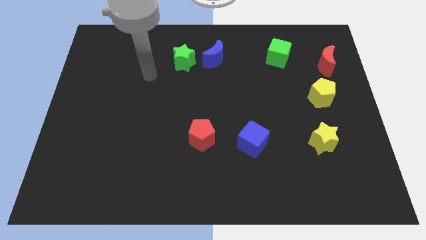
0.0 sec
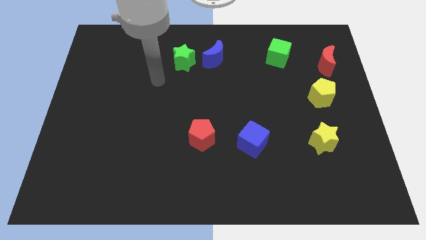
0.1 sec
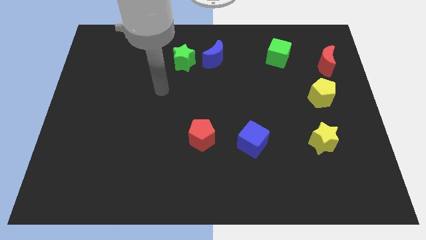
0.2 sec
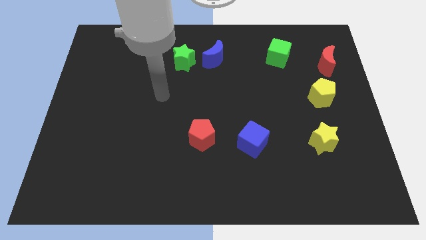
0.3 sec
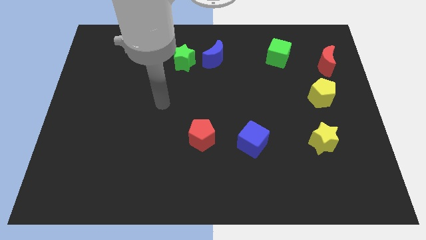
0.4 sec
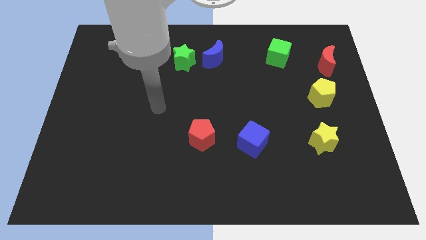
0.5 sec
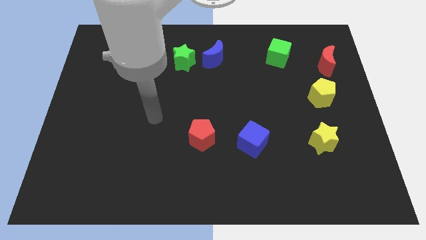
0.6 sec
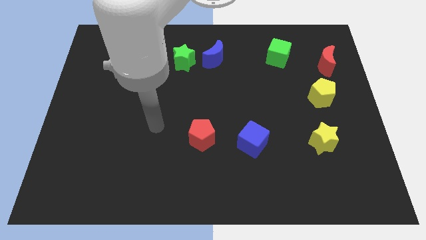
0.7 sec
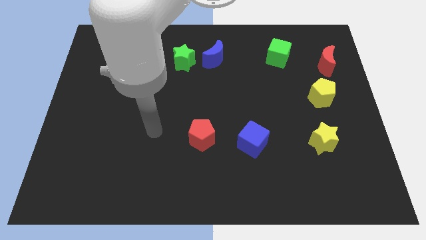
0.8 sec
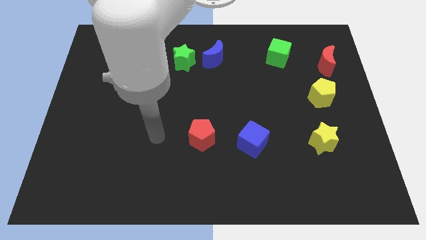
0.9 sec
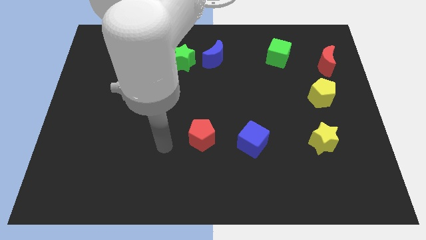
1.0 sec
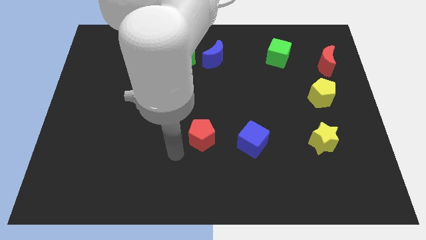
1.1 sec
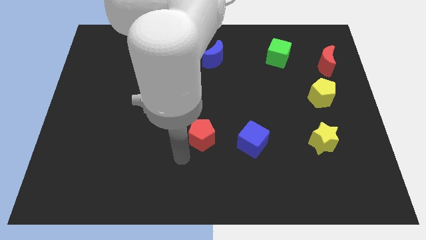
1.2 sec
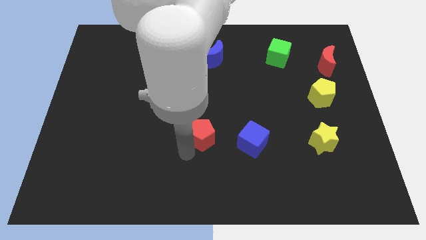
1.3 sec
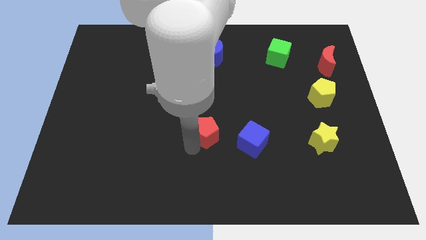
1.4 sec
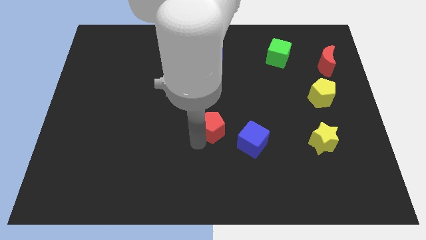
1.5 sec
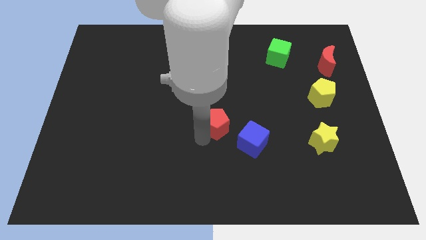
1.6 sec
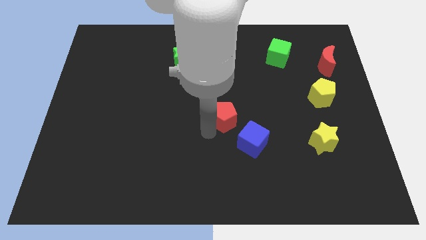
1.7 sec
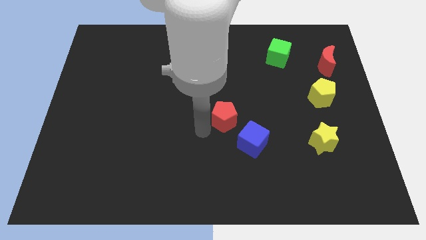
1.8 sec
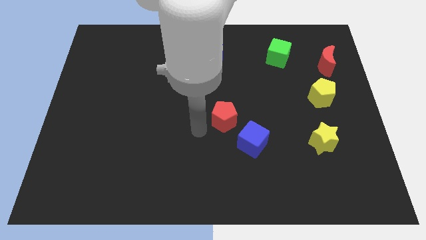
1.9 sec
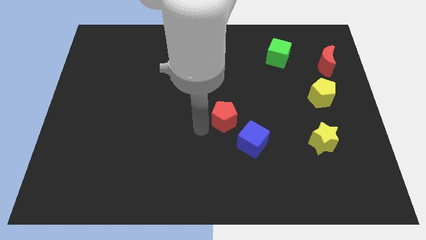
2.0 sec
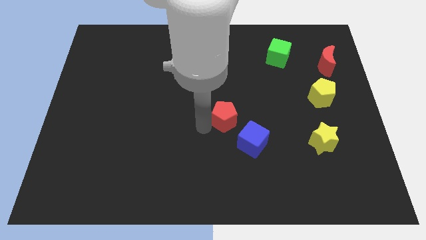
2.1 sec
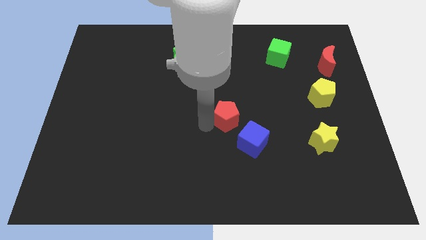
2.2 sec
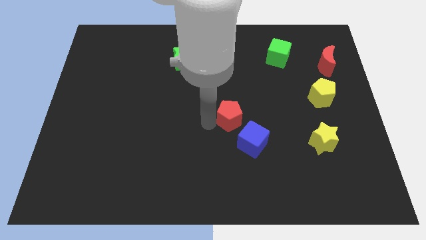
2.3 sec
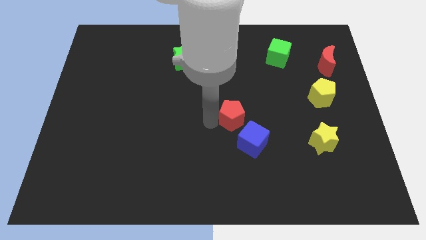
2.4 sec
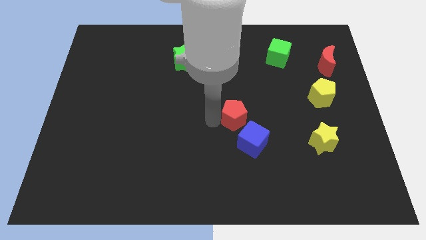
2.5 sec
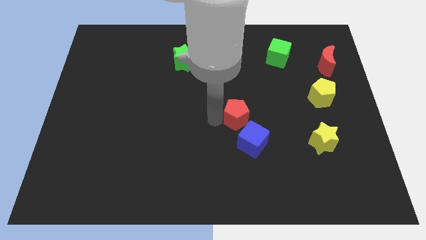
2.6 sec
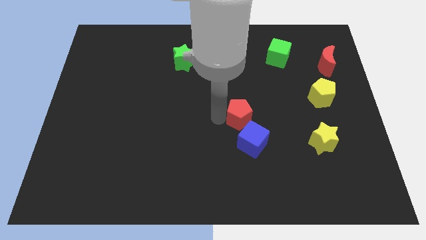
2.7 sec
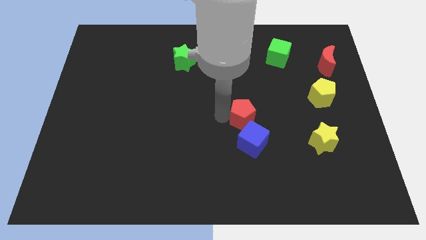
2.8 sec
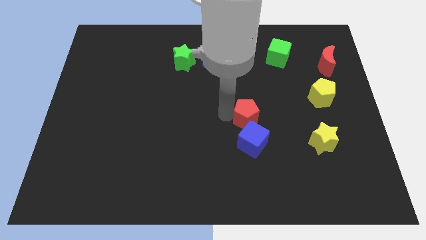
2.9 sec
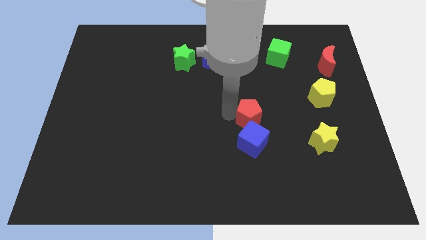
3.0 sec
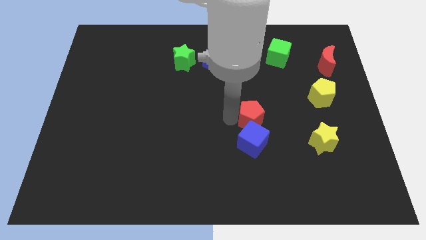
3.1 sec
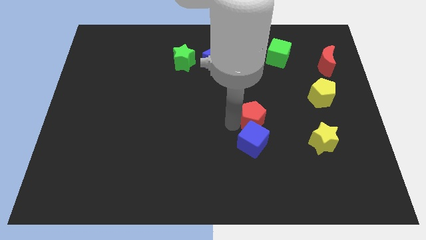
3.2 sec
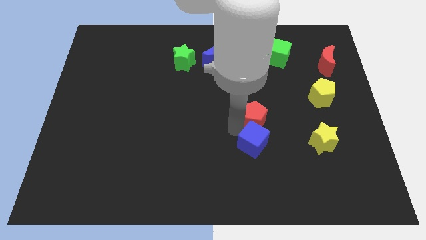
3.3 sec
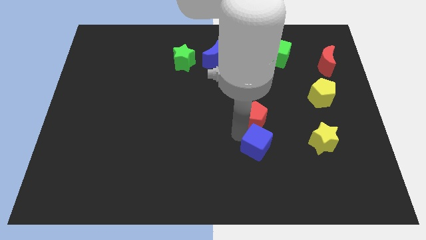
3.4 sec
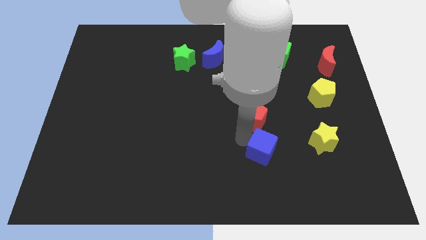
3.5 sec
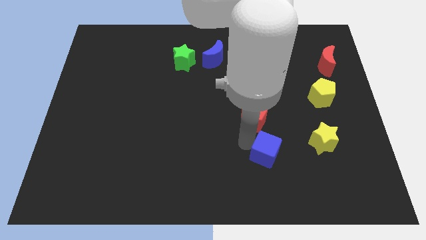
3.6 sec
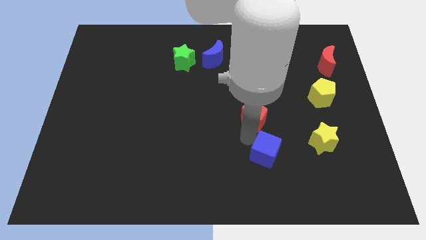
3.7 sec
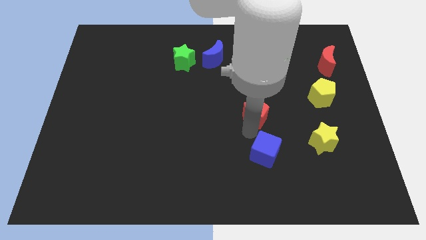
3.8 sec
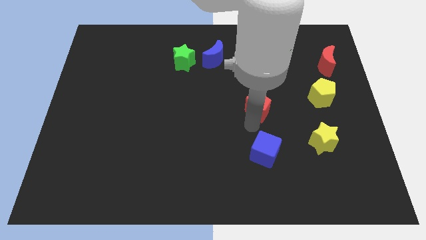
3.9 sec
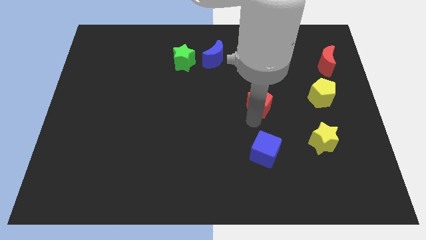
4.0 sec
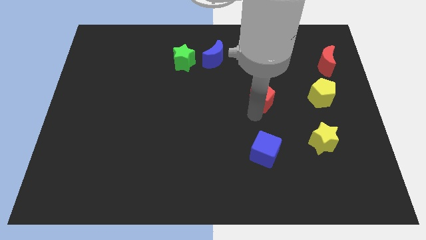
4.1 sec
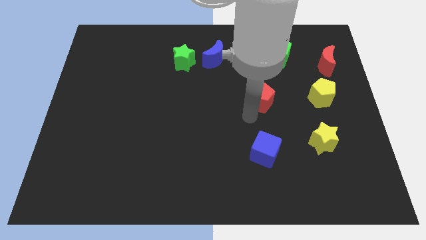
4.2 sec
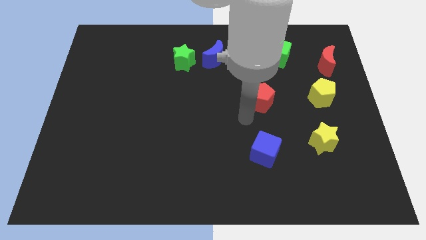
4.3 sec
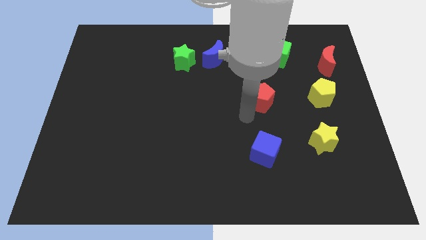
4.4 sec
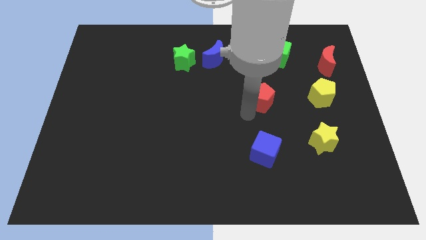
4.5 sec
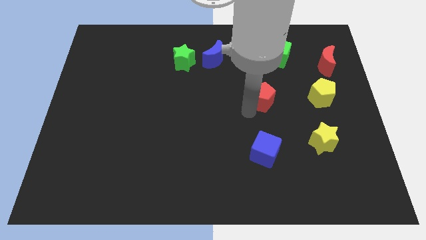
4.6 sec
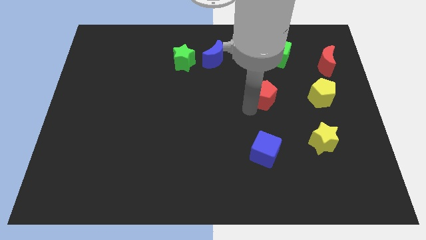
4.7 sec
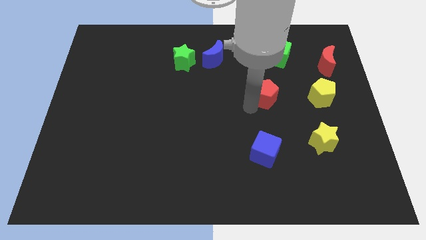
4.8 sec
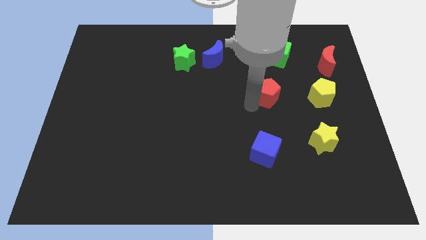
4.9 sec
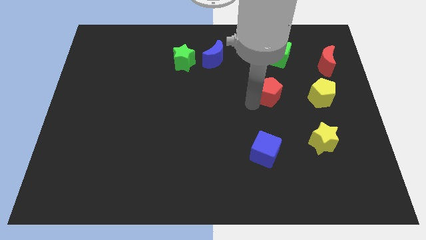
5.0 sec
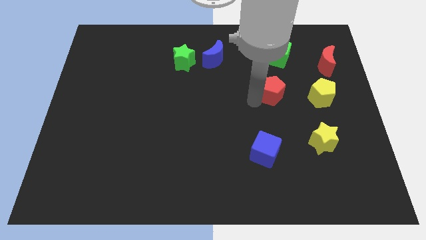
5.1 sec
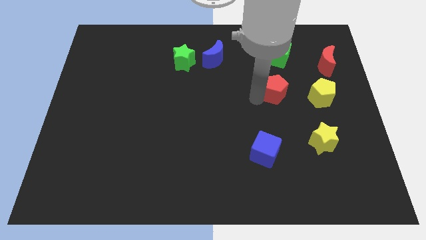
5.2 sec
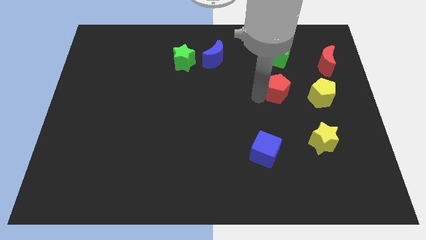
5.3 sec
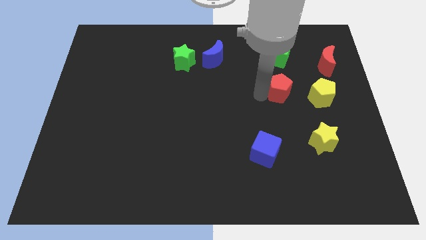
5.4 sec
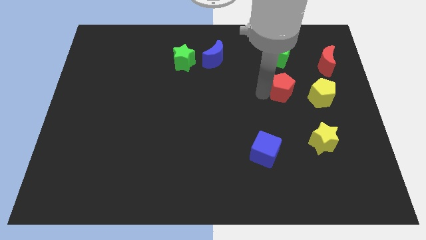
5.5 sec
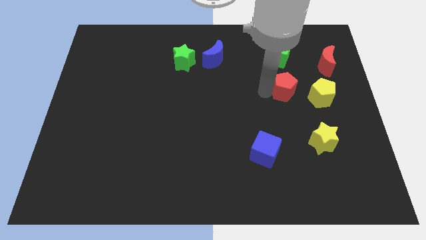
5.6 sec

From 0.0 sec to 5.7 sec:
slide the red pentagon to the top left of the yellow pentagon

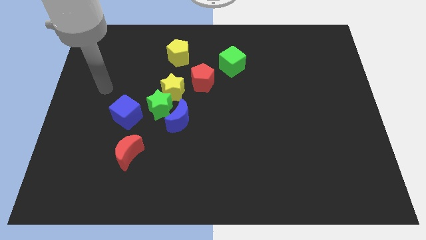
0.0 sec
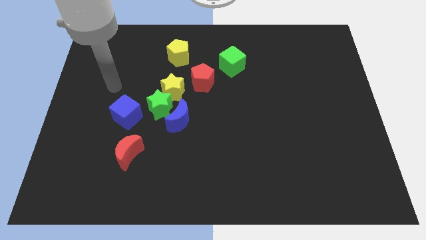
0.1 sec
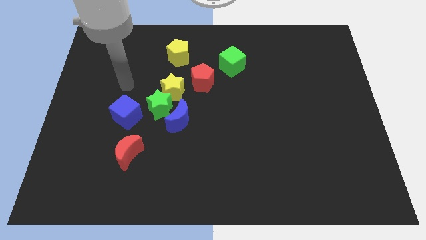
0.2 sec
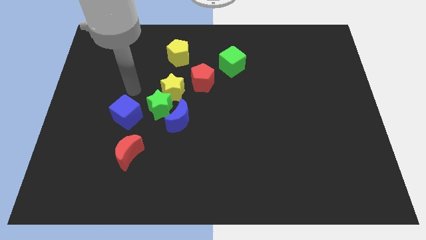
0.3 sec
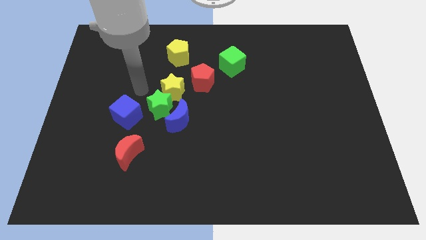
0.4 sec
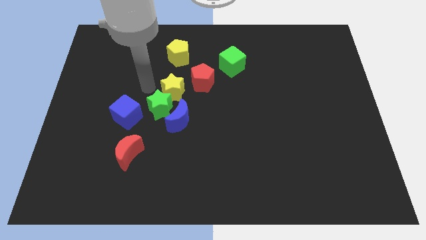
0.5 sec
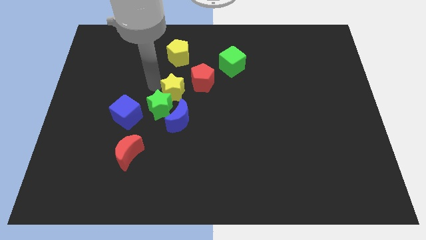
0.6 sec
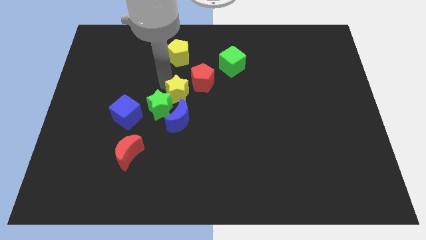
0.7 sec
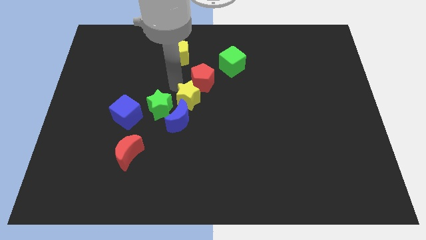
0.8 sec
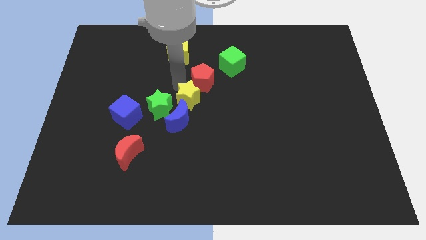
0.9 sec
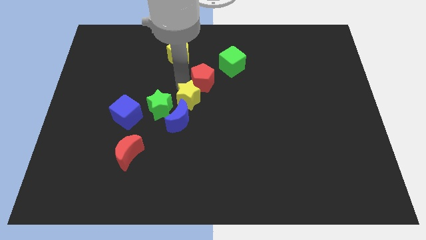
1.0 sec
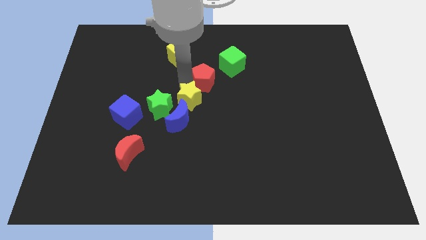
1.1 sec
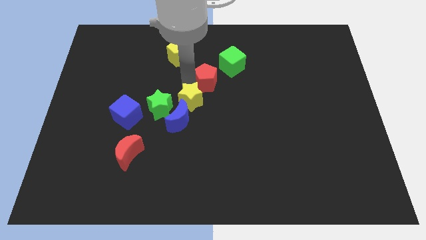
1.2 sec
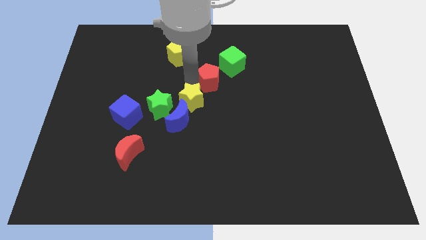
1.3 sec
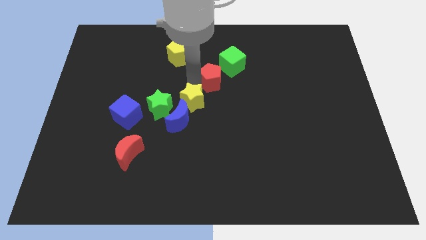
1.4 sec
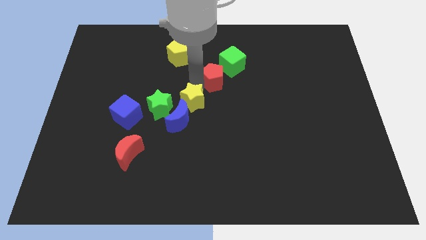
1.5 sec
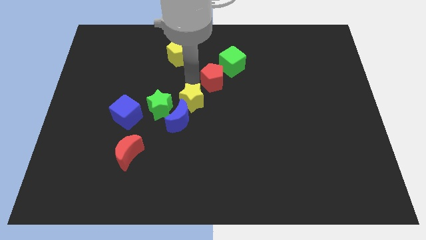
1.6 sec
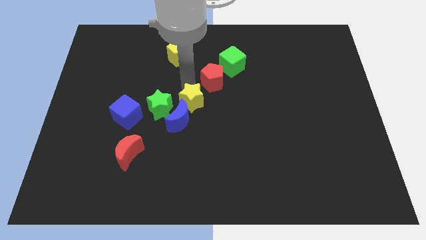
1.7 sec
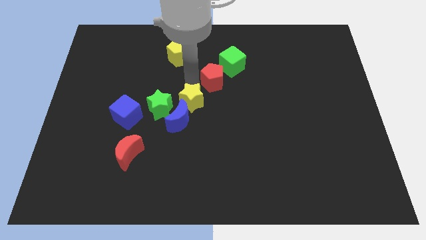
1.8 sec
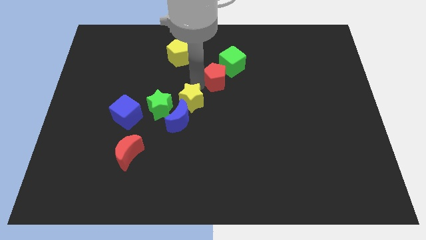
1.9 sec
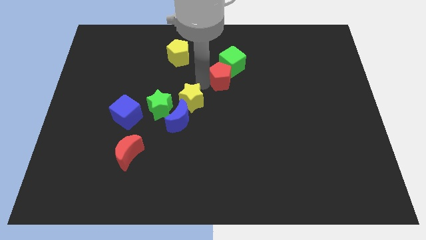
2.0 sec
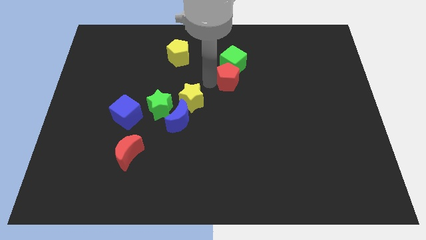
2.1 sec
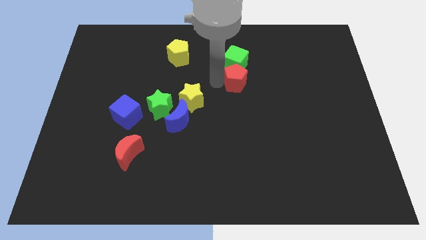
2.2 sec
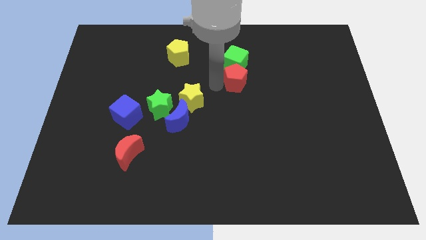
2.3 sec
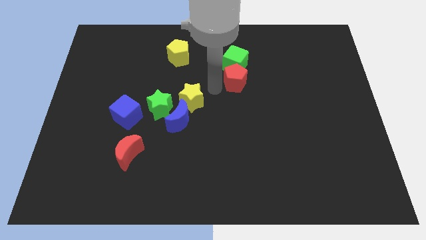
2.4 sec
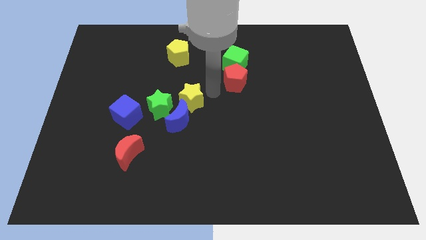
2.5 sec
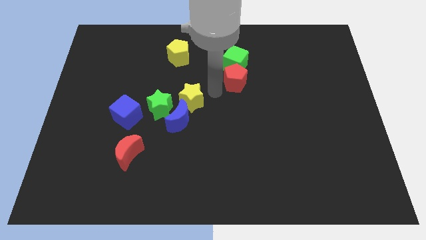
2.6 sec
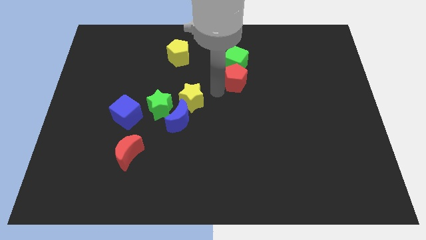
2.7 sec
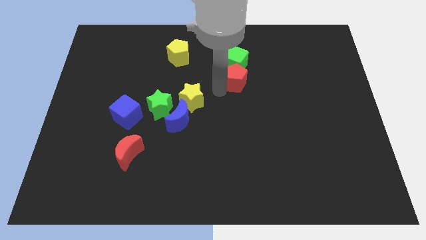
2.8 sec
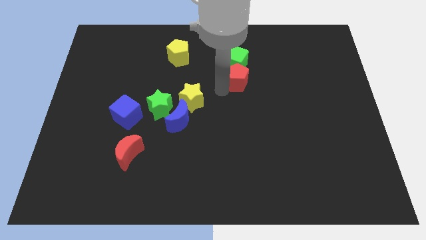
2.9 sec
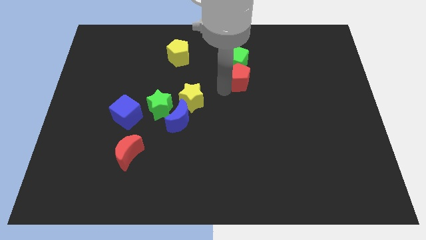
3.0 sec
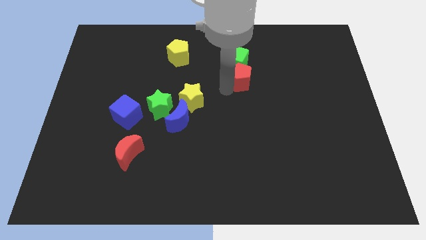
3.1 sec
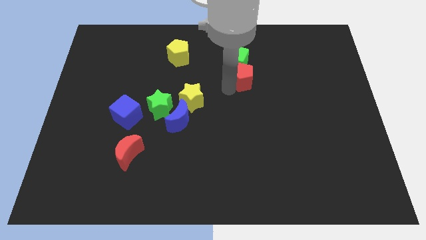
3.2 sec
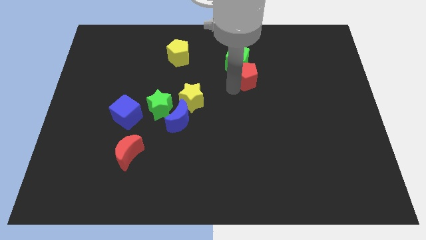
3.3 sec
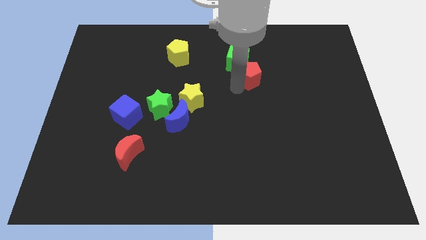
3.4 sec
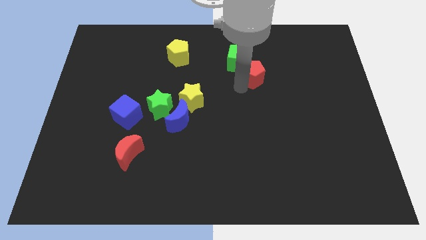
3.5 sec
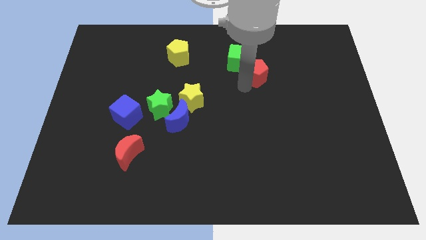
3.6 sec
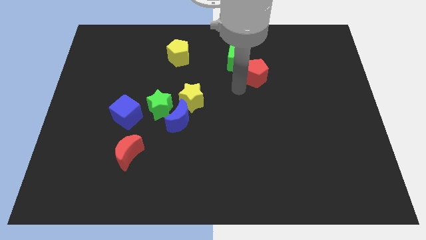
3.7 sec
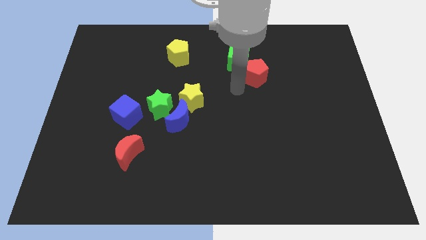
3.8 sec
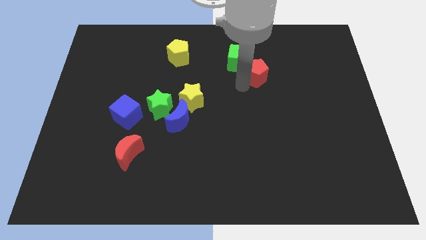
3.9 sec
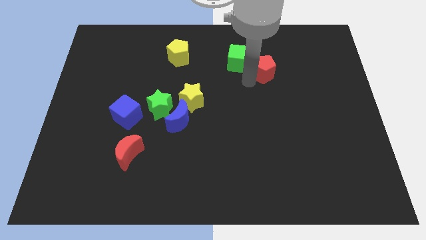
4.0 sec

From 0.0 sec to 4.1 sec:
put the red pentagon to the right side of the green cube
